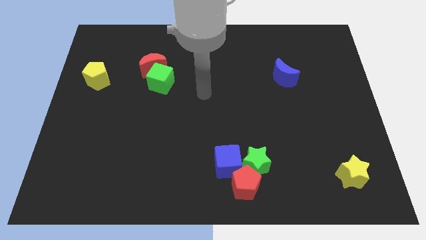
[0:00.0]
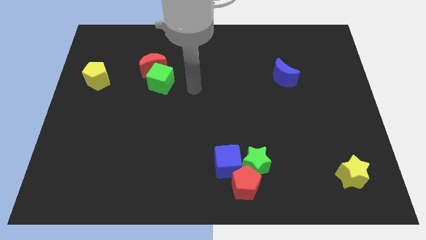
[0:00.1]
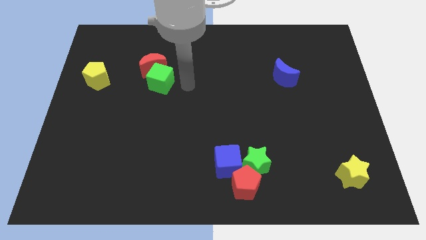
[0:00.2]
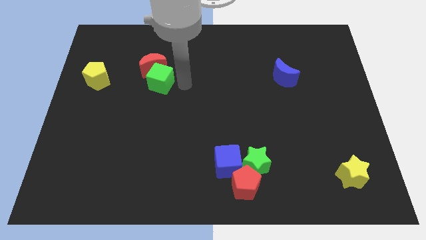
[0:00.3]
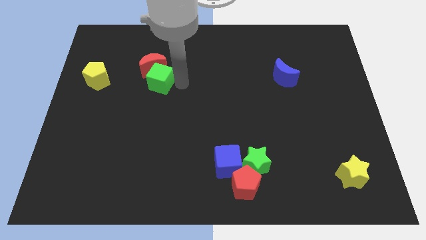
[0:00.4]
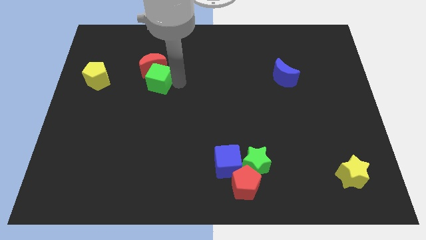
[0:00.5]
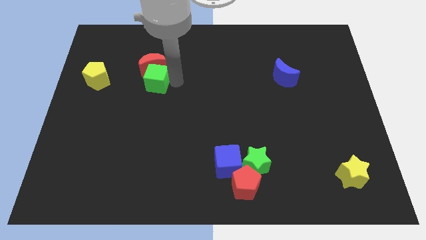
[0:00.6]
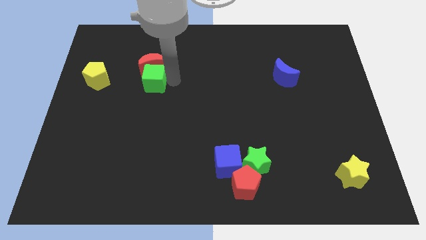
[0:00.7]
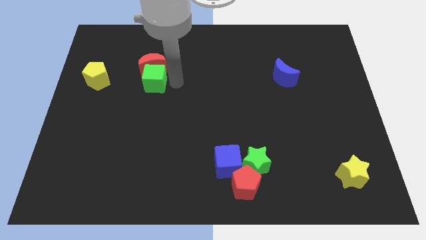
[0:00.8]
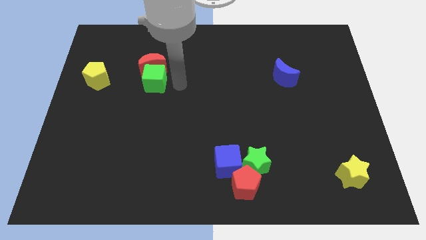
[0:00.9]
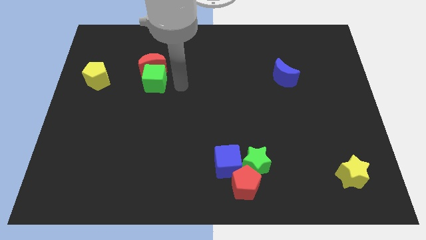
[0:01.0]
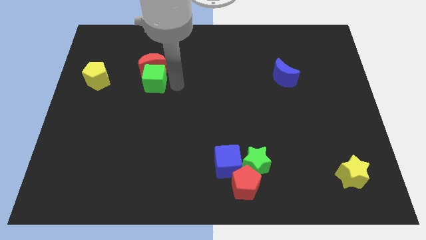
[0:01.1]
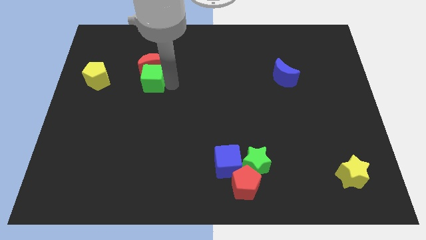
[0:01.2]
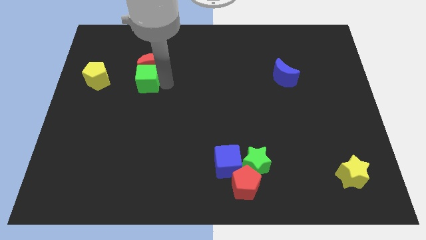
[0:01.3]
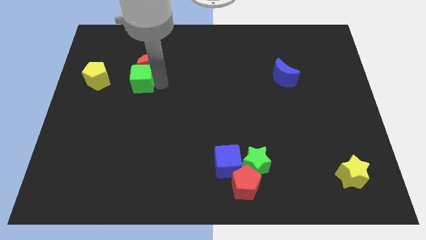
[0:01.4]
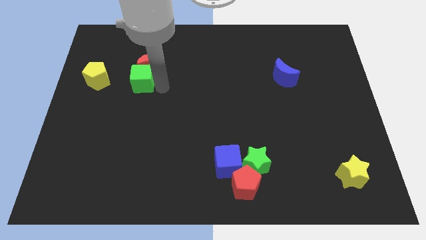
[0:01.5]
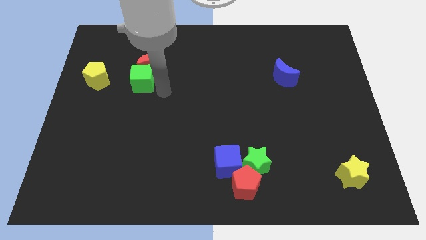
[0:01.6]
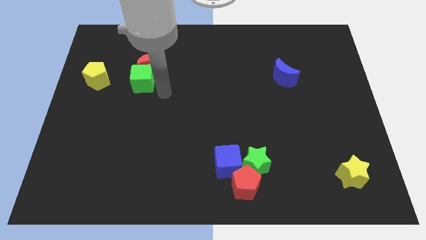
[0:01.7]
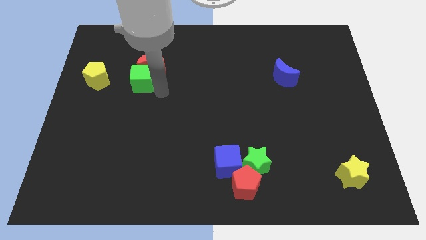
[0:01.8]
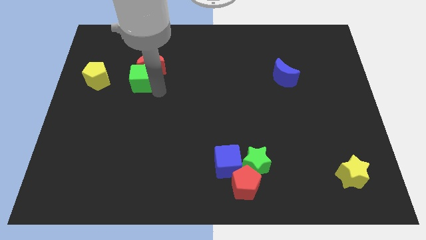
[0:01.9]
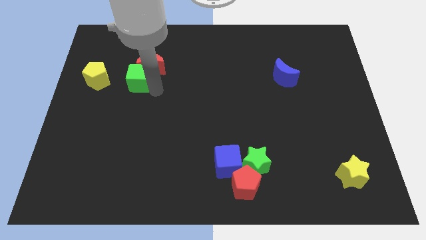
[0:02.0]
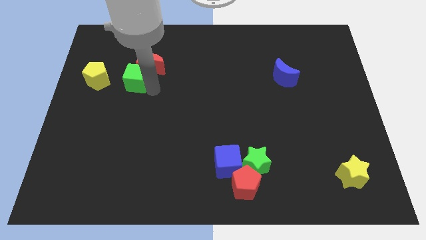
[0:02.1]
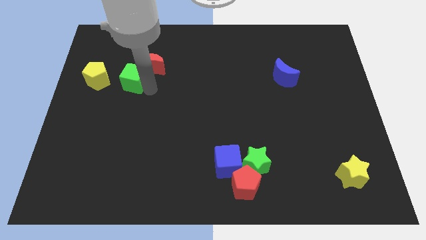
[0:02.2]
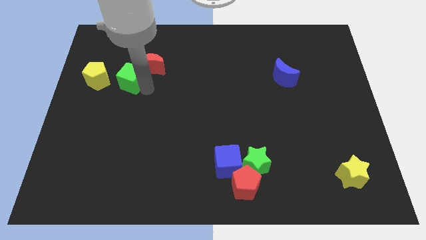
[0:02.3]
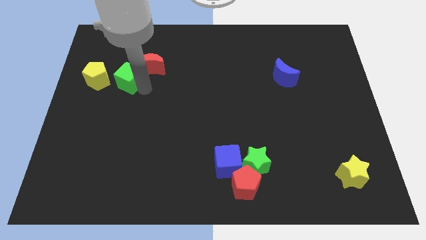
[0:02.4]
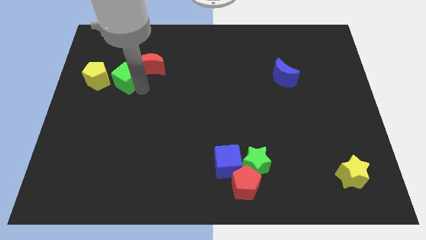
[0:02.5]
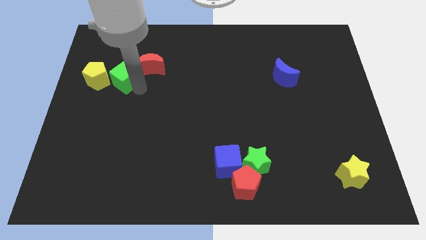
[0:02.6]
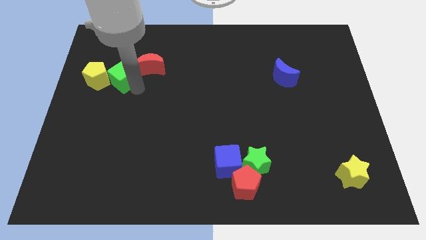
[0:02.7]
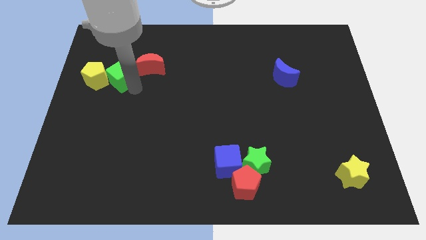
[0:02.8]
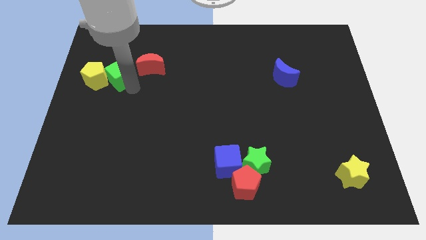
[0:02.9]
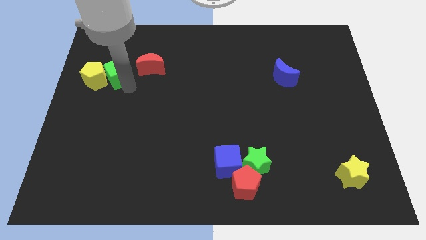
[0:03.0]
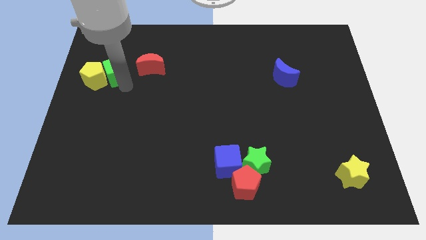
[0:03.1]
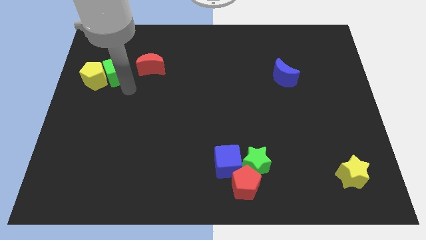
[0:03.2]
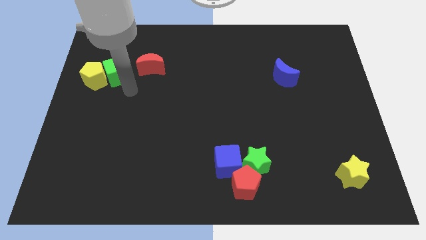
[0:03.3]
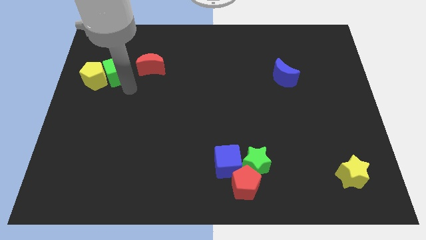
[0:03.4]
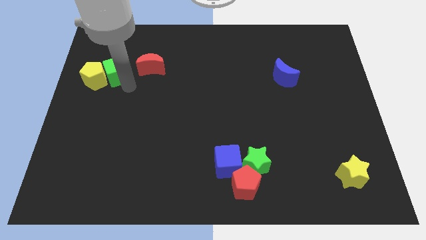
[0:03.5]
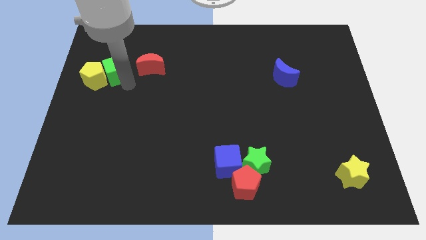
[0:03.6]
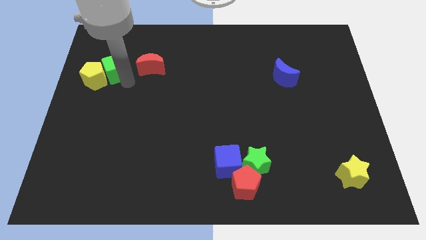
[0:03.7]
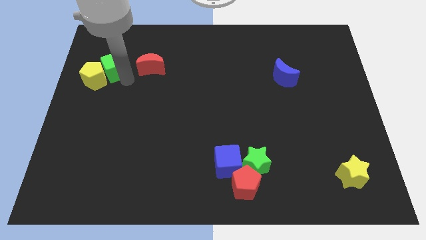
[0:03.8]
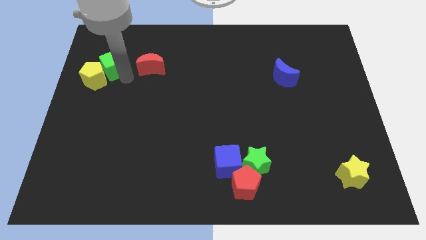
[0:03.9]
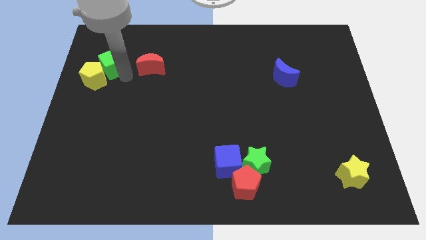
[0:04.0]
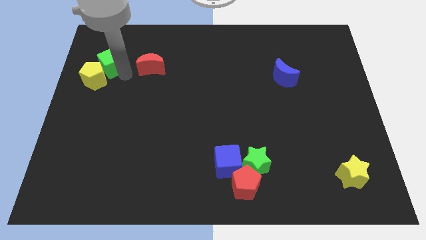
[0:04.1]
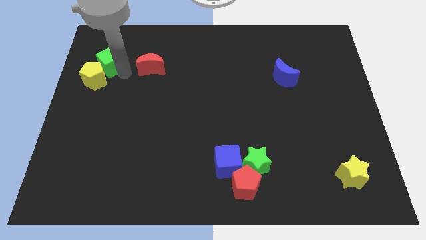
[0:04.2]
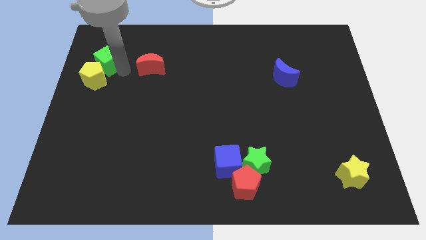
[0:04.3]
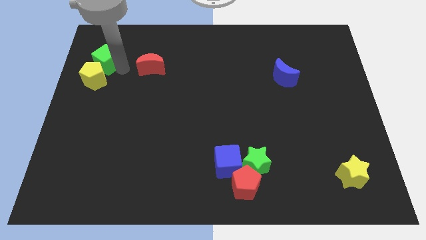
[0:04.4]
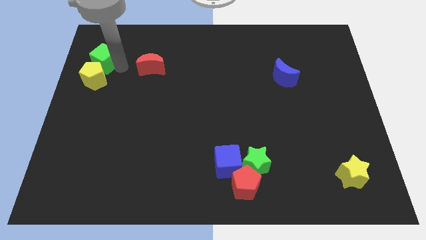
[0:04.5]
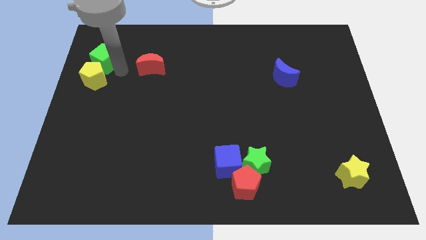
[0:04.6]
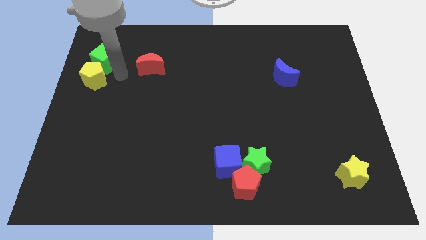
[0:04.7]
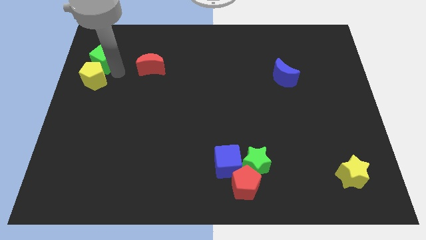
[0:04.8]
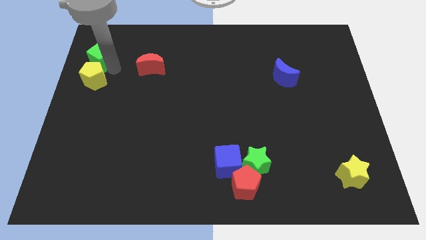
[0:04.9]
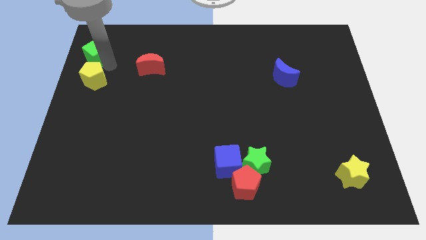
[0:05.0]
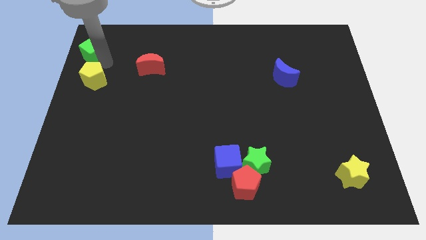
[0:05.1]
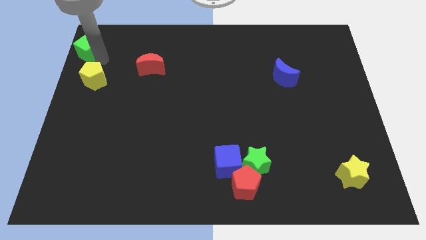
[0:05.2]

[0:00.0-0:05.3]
move the green cube to the top left of the board
